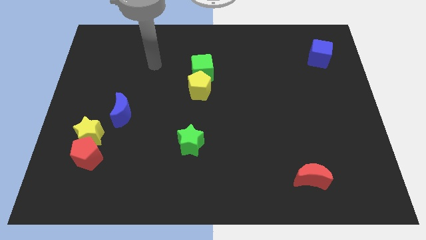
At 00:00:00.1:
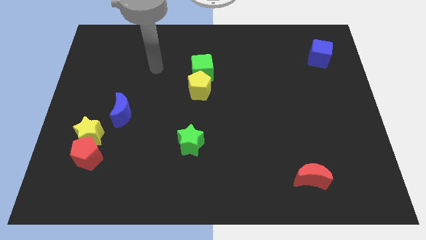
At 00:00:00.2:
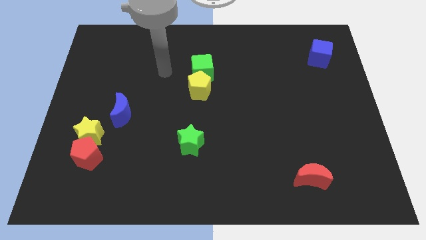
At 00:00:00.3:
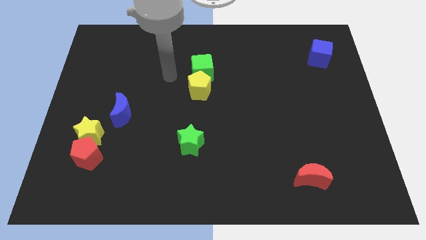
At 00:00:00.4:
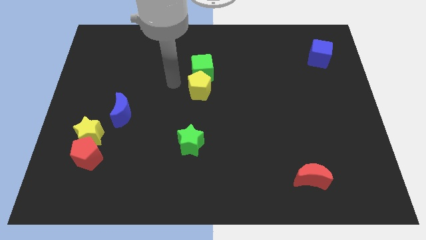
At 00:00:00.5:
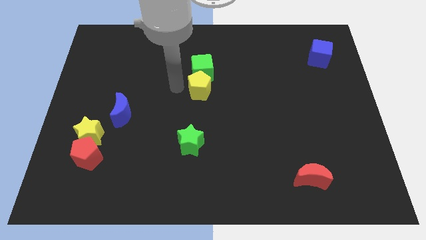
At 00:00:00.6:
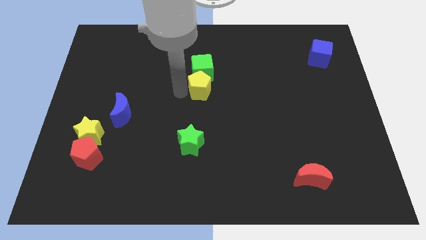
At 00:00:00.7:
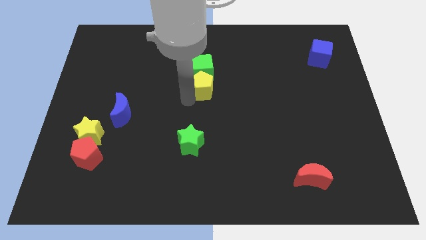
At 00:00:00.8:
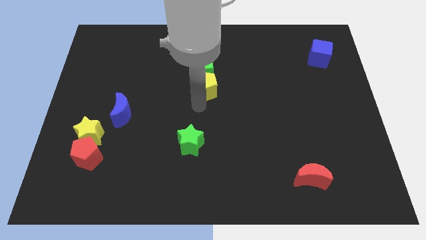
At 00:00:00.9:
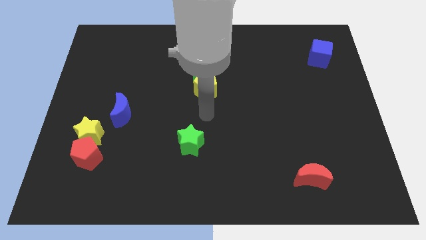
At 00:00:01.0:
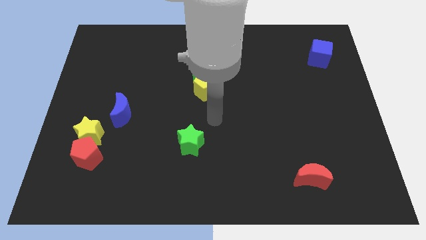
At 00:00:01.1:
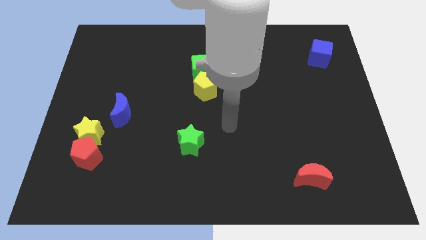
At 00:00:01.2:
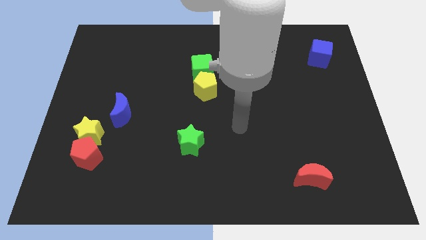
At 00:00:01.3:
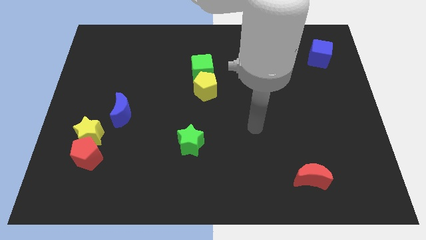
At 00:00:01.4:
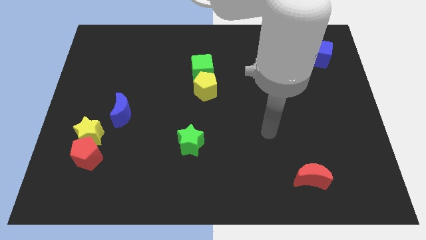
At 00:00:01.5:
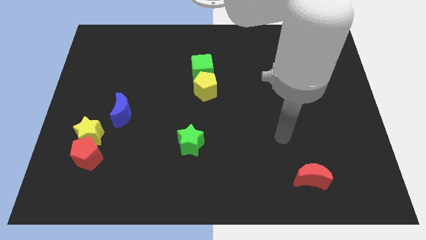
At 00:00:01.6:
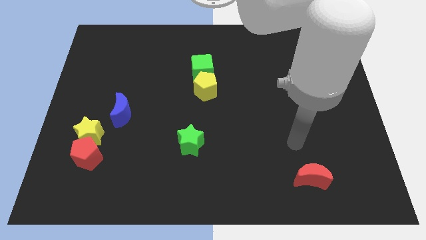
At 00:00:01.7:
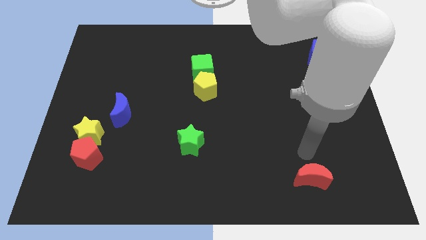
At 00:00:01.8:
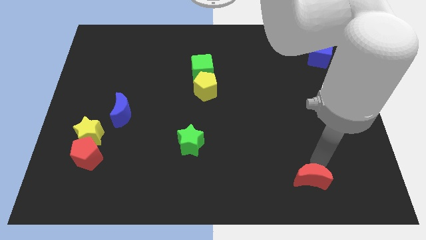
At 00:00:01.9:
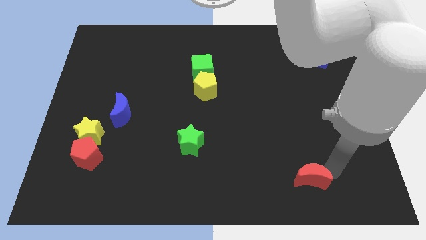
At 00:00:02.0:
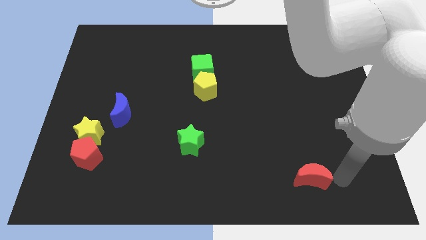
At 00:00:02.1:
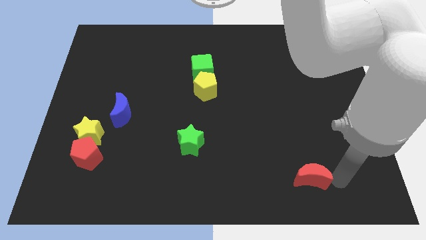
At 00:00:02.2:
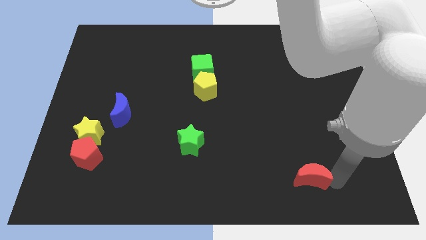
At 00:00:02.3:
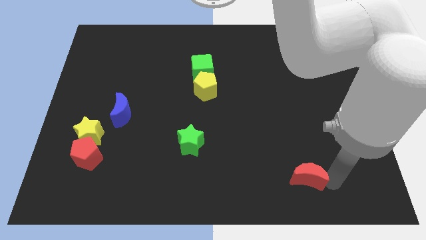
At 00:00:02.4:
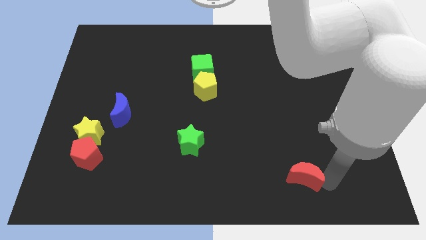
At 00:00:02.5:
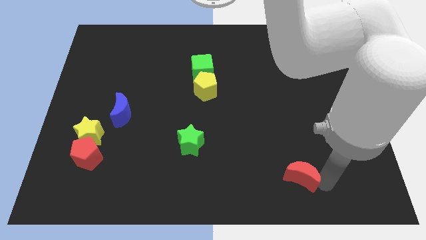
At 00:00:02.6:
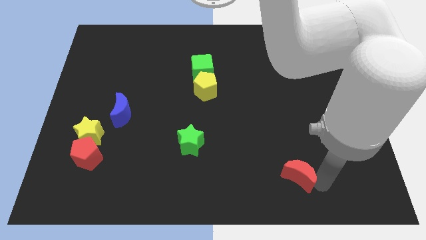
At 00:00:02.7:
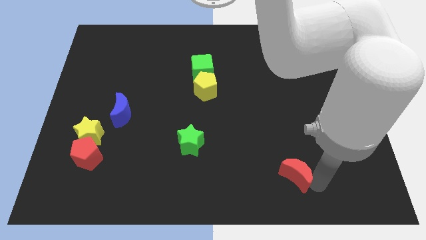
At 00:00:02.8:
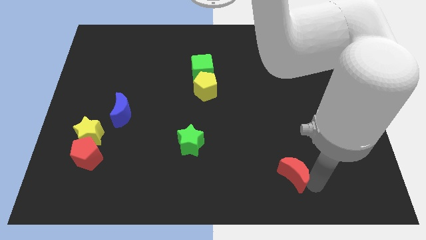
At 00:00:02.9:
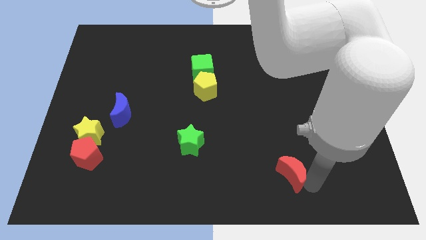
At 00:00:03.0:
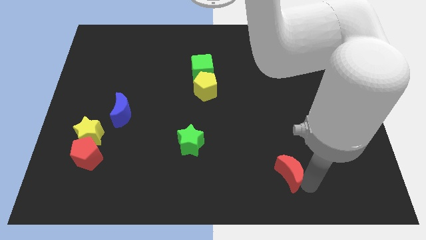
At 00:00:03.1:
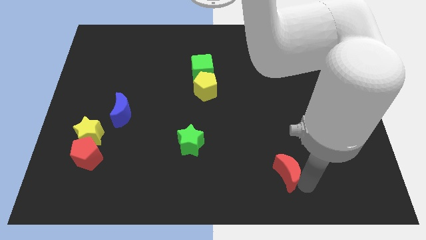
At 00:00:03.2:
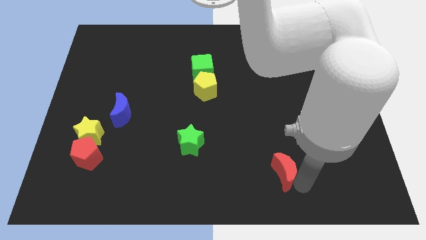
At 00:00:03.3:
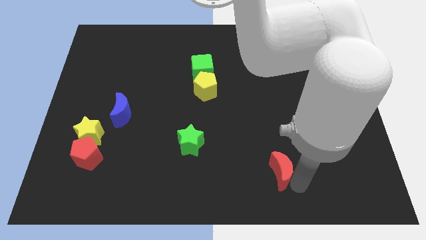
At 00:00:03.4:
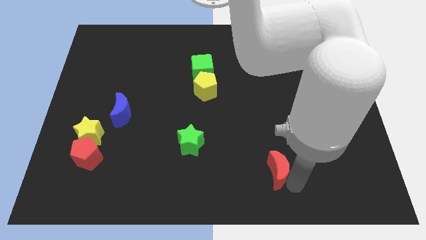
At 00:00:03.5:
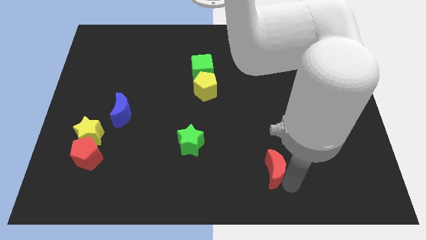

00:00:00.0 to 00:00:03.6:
move the red moon a bit to the left

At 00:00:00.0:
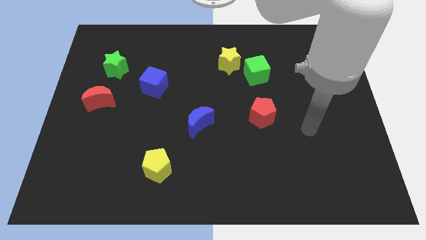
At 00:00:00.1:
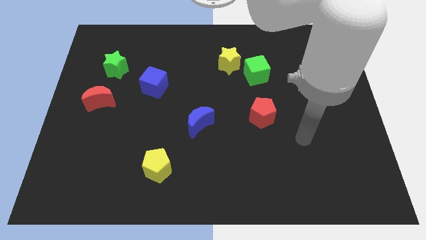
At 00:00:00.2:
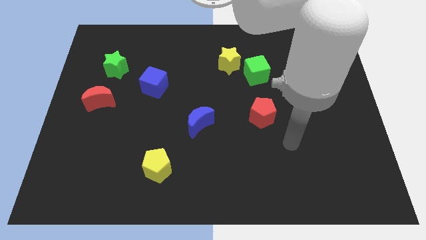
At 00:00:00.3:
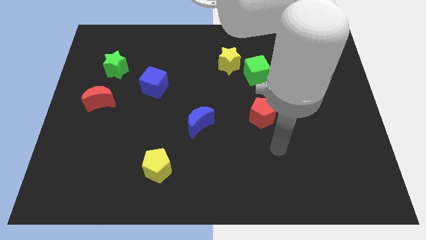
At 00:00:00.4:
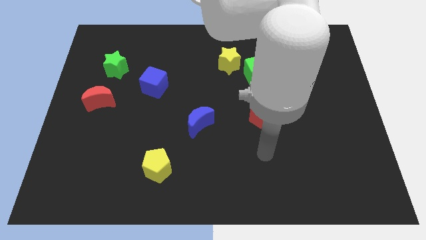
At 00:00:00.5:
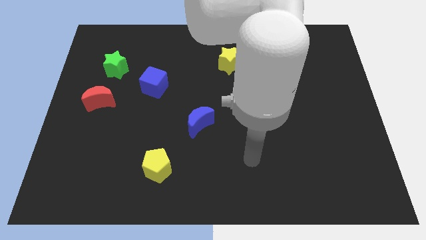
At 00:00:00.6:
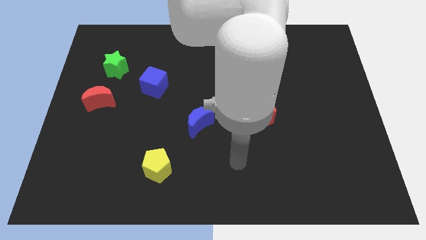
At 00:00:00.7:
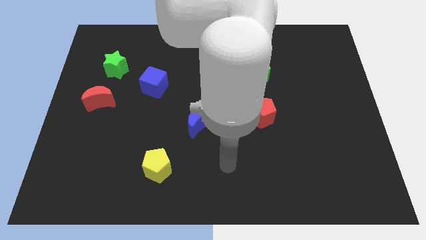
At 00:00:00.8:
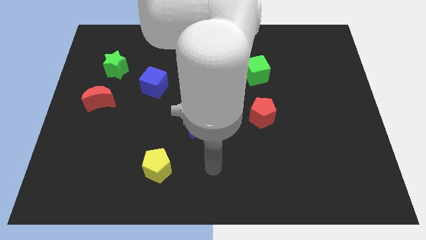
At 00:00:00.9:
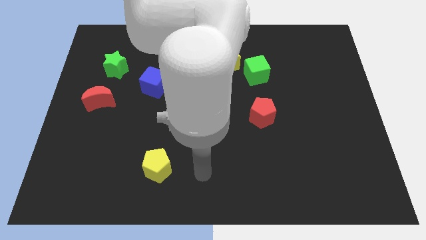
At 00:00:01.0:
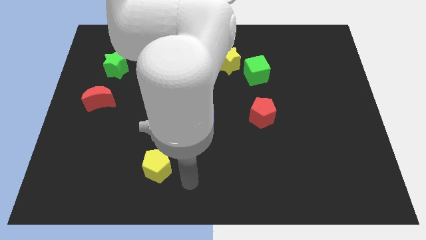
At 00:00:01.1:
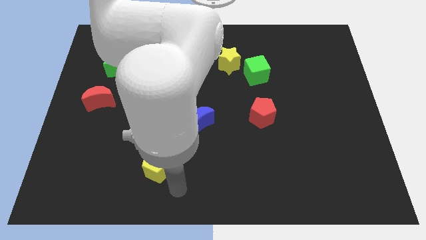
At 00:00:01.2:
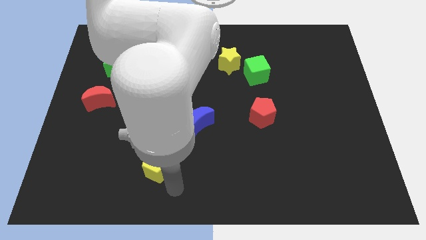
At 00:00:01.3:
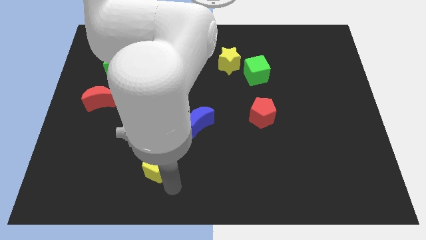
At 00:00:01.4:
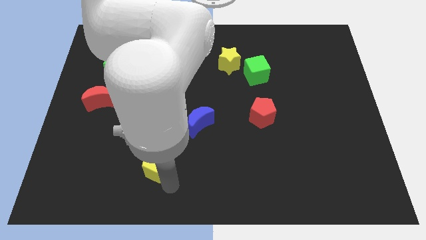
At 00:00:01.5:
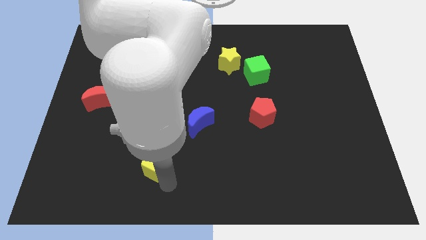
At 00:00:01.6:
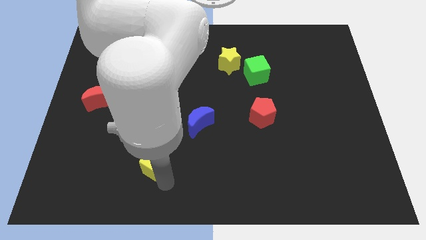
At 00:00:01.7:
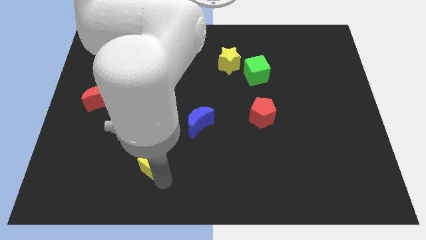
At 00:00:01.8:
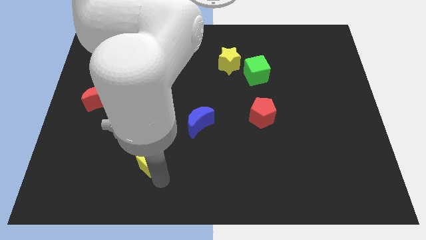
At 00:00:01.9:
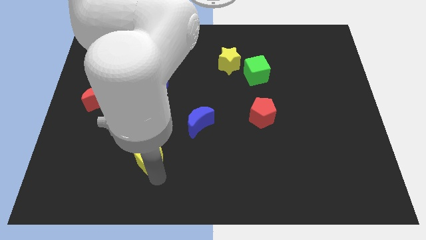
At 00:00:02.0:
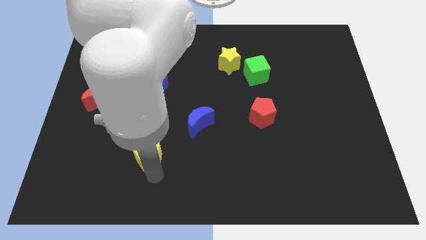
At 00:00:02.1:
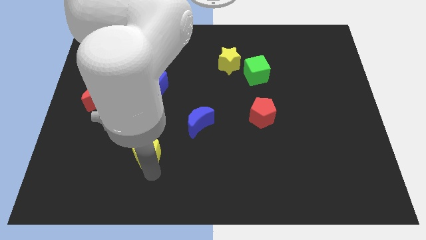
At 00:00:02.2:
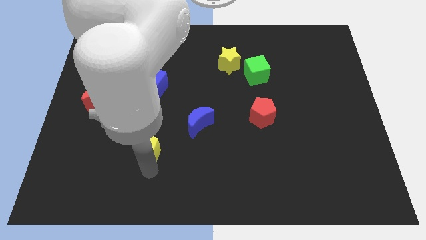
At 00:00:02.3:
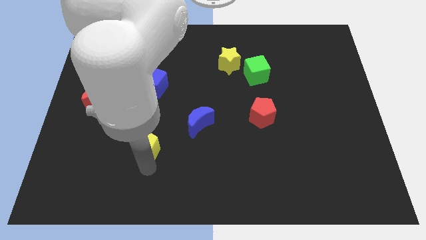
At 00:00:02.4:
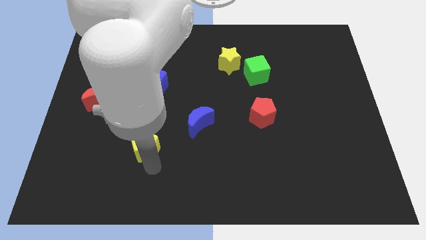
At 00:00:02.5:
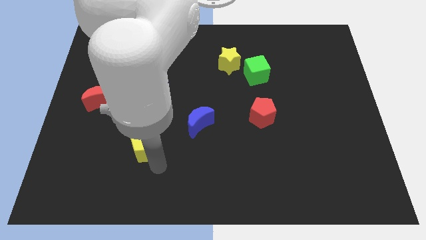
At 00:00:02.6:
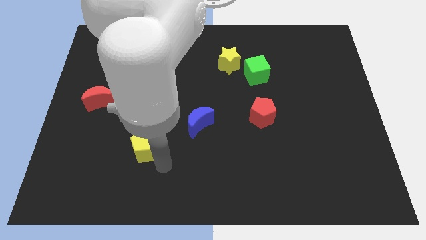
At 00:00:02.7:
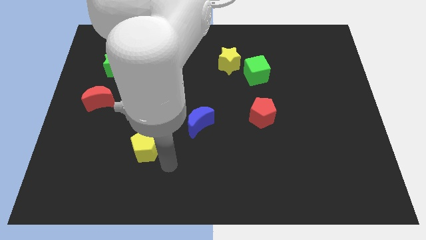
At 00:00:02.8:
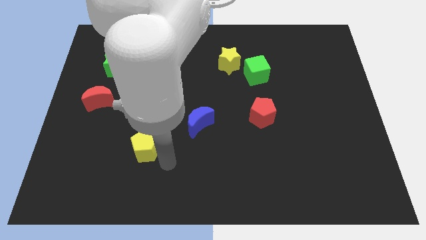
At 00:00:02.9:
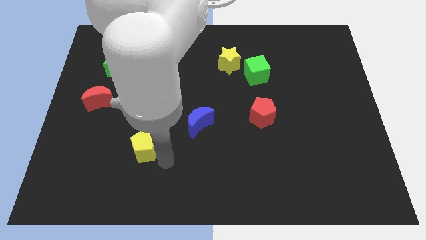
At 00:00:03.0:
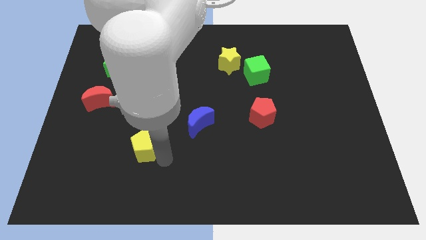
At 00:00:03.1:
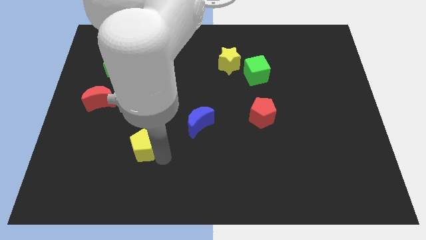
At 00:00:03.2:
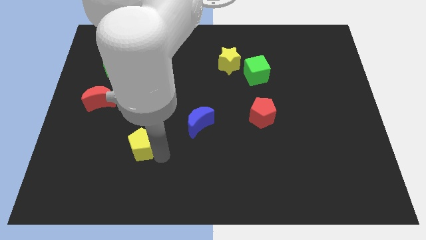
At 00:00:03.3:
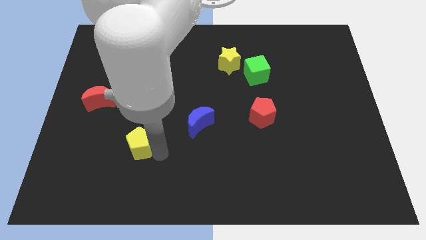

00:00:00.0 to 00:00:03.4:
slightly move the yellow pentagon up and to the left diagonally

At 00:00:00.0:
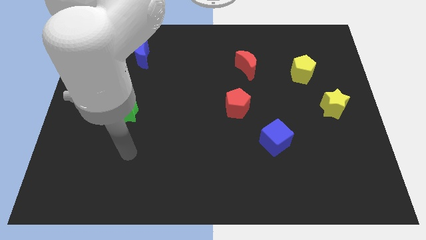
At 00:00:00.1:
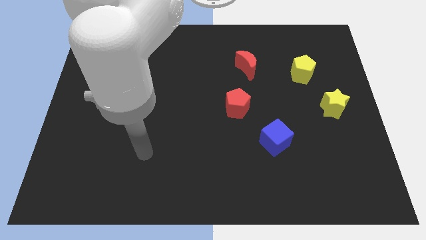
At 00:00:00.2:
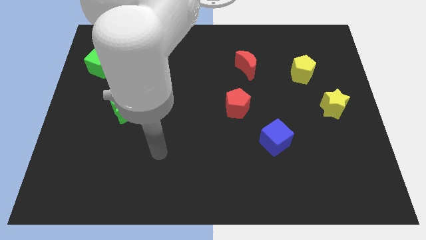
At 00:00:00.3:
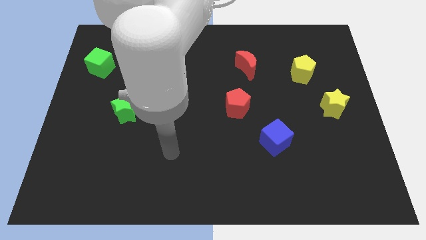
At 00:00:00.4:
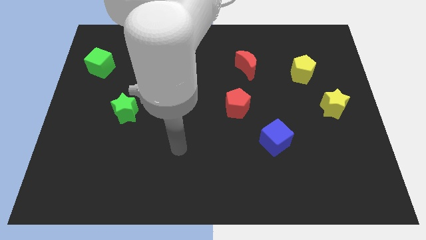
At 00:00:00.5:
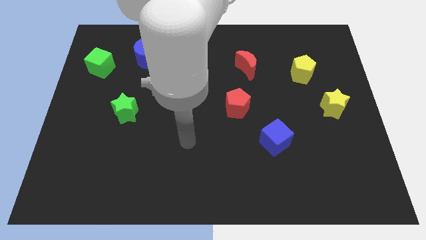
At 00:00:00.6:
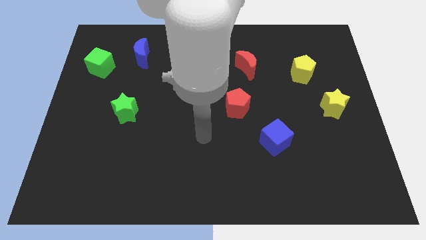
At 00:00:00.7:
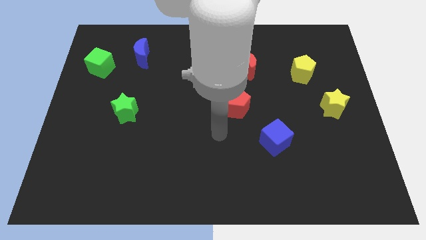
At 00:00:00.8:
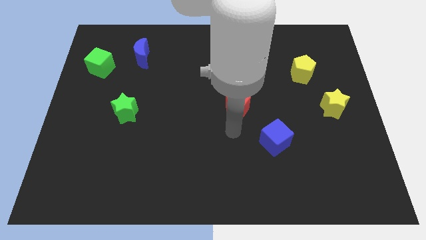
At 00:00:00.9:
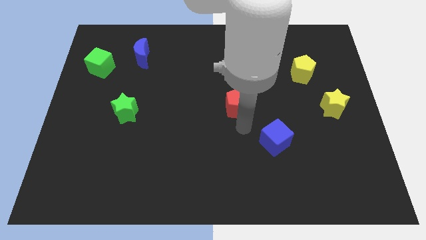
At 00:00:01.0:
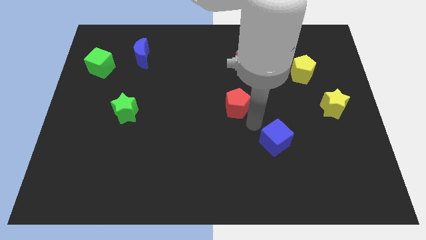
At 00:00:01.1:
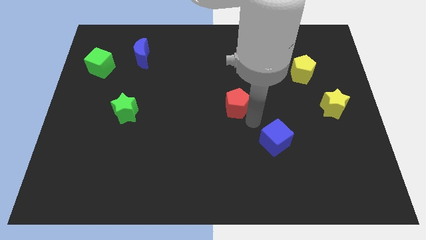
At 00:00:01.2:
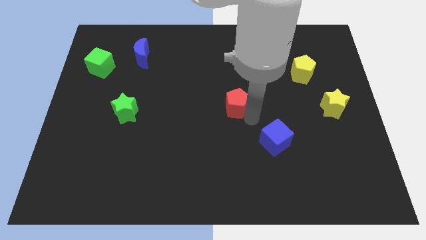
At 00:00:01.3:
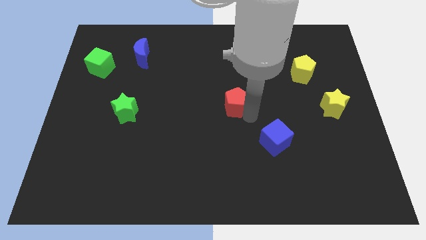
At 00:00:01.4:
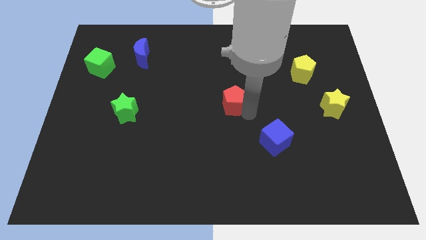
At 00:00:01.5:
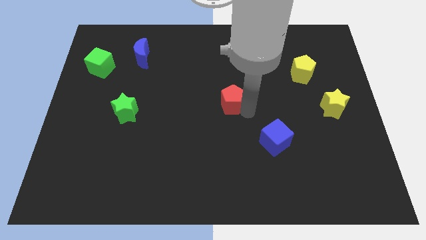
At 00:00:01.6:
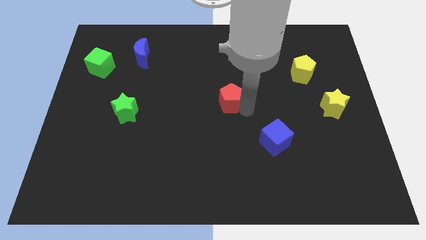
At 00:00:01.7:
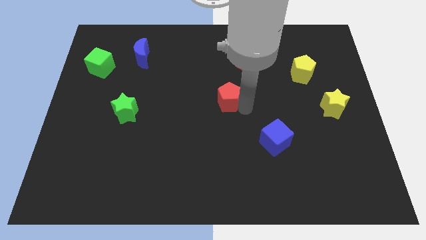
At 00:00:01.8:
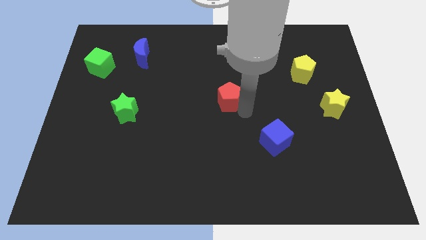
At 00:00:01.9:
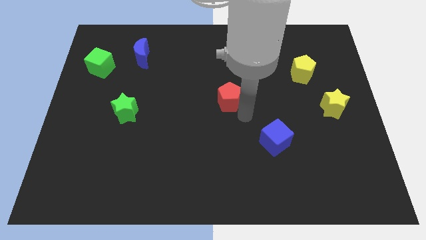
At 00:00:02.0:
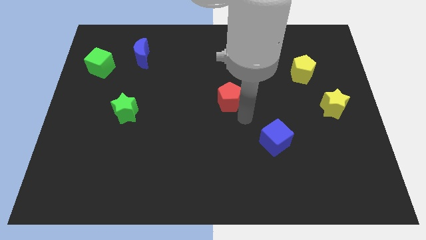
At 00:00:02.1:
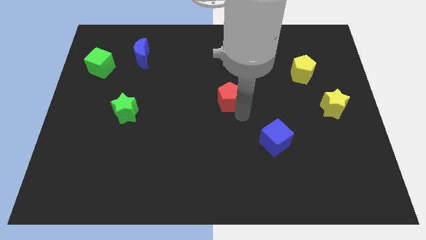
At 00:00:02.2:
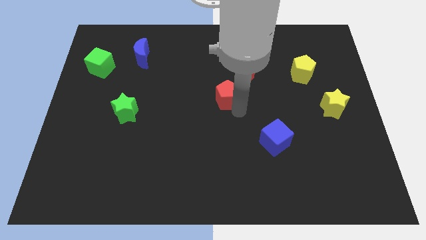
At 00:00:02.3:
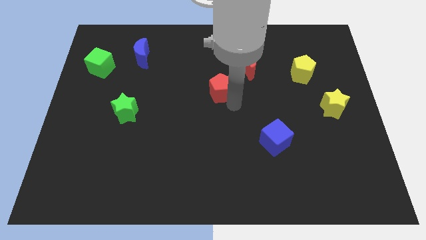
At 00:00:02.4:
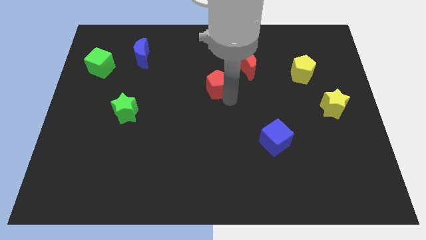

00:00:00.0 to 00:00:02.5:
slightly slide the red pentagon diagonally upwards and to the left
